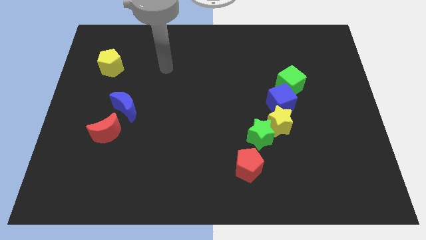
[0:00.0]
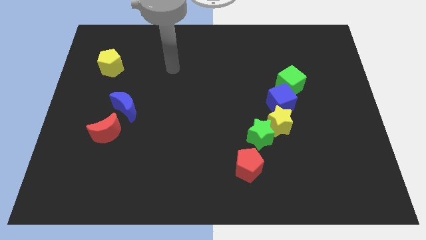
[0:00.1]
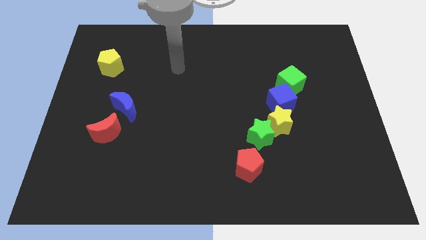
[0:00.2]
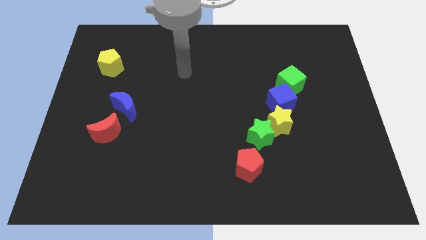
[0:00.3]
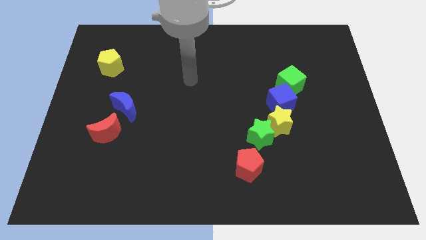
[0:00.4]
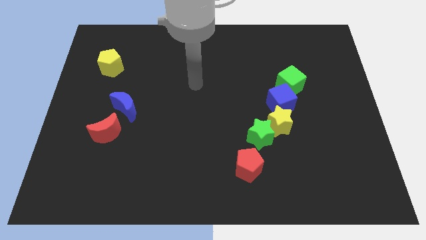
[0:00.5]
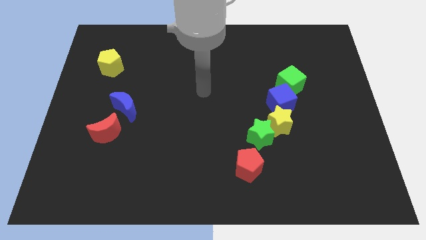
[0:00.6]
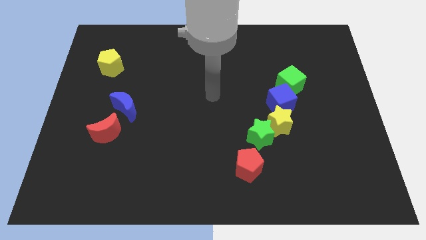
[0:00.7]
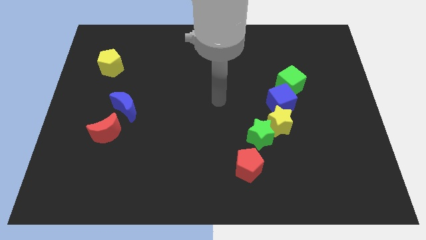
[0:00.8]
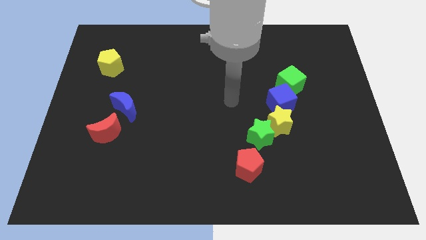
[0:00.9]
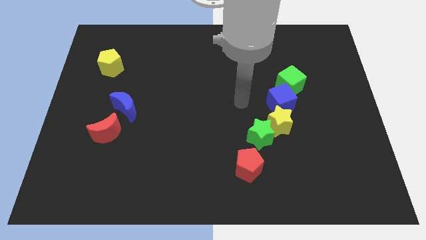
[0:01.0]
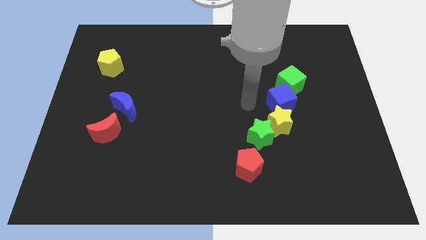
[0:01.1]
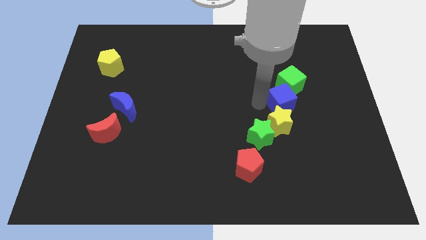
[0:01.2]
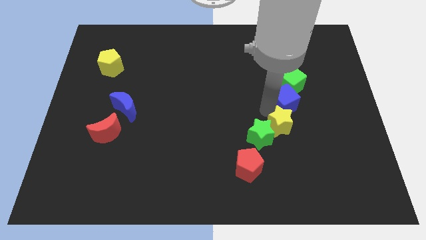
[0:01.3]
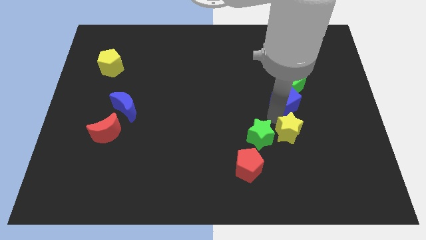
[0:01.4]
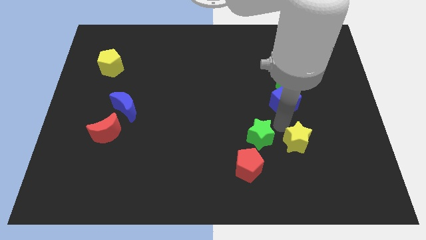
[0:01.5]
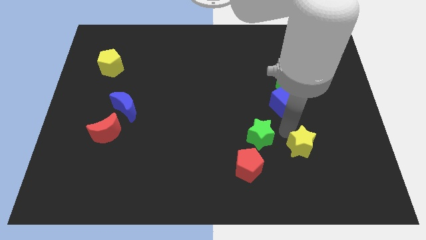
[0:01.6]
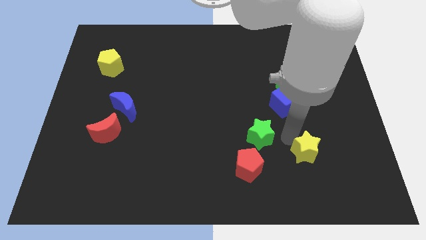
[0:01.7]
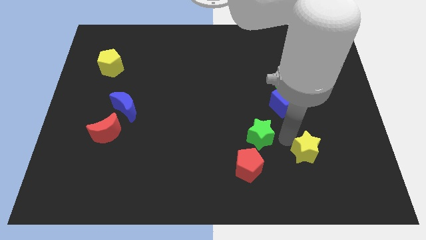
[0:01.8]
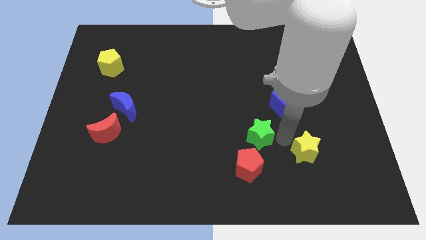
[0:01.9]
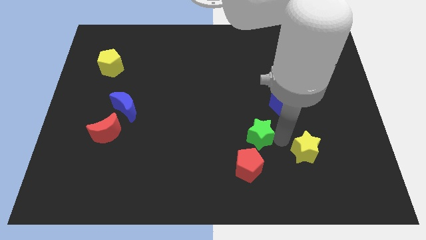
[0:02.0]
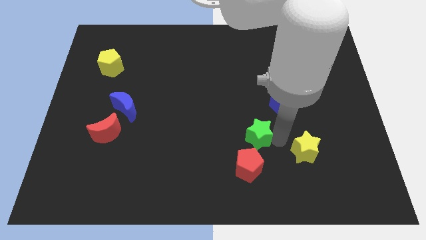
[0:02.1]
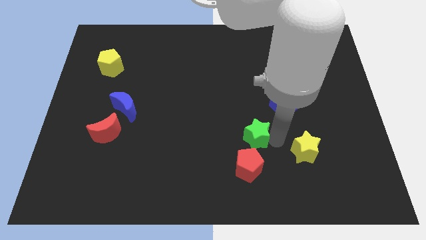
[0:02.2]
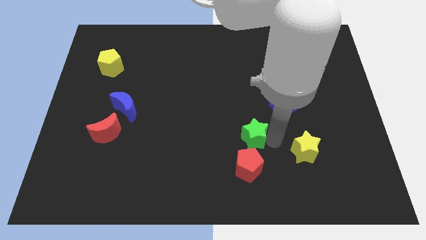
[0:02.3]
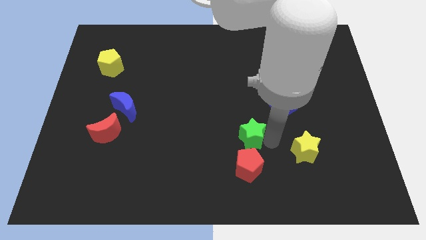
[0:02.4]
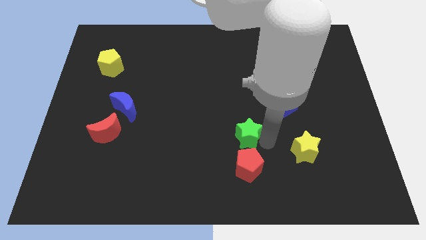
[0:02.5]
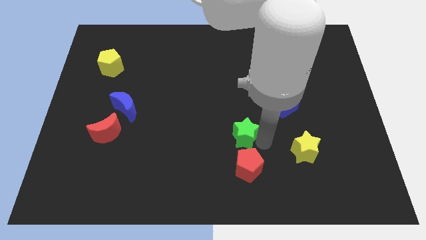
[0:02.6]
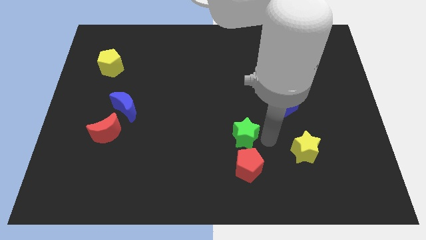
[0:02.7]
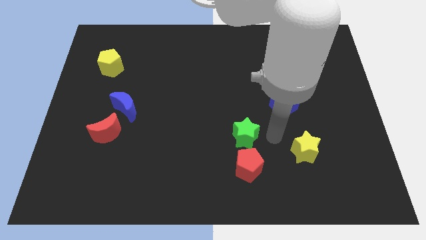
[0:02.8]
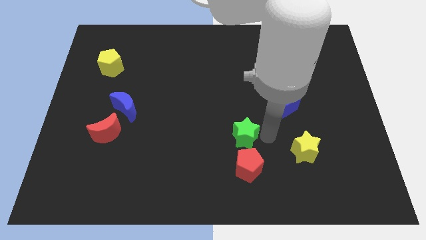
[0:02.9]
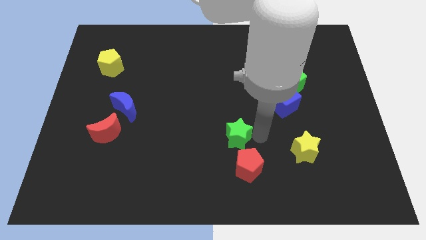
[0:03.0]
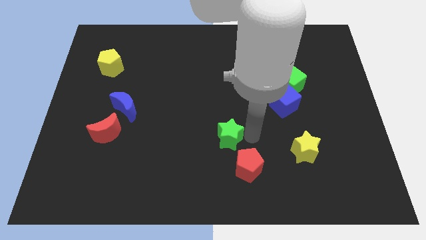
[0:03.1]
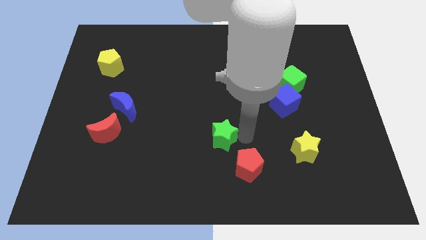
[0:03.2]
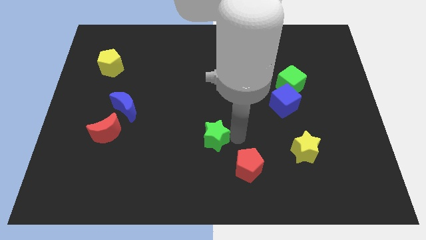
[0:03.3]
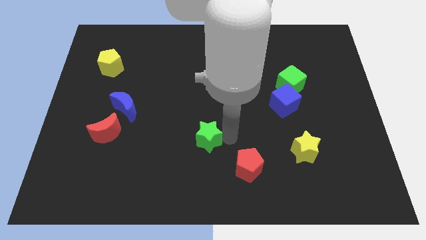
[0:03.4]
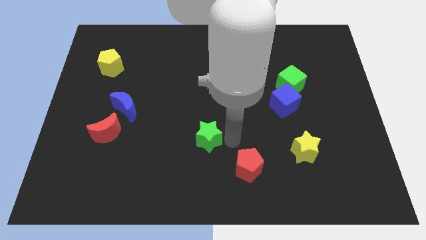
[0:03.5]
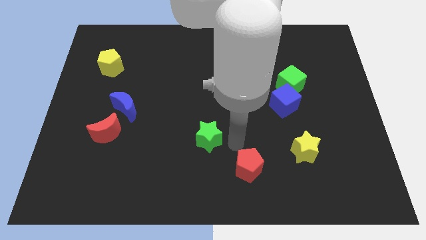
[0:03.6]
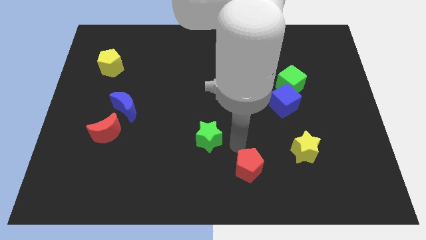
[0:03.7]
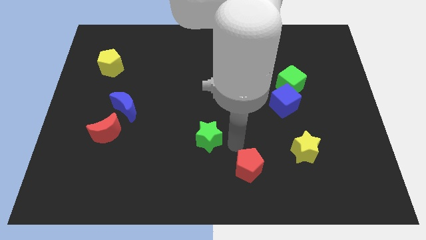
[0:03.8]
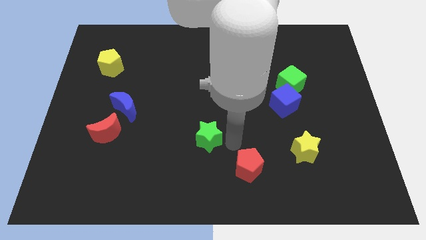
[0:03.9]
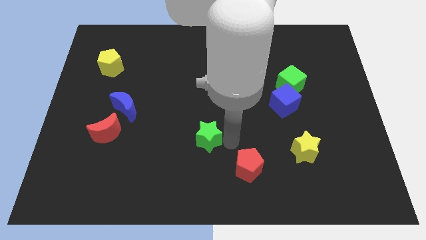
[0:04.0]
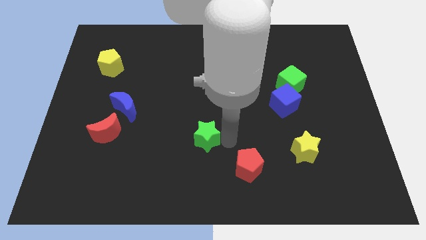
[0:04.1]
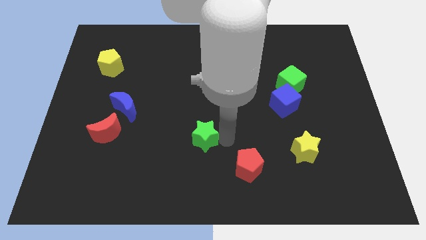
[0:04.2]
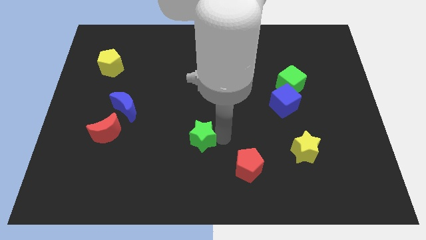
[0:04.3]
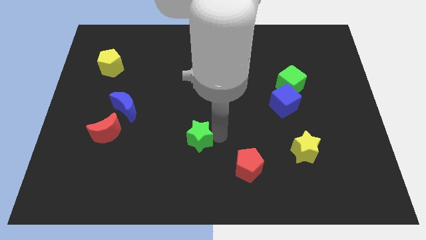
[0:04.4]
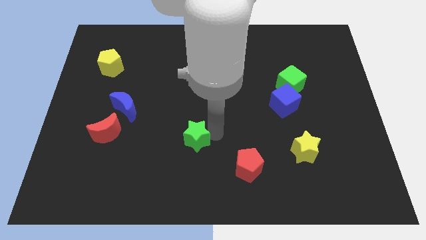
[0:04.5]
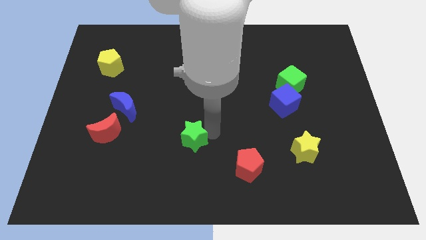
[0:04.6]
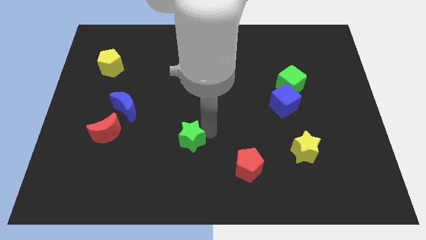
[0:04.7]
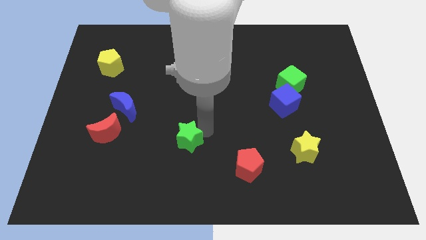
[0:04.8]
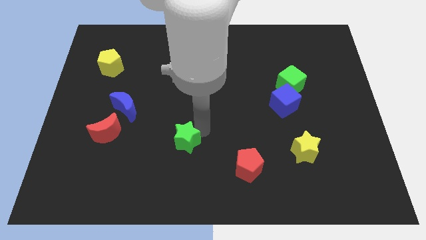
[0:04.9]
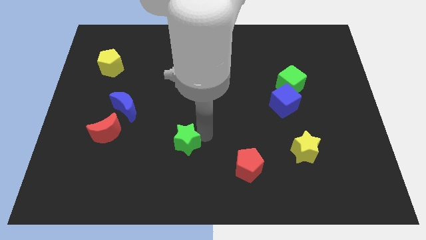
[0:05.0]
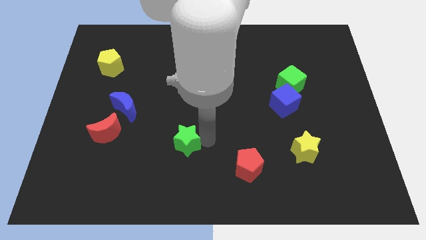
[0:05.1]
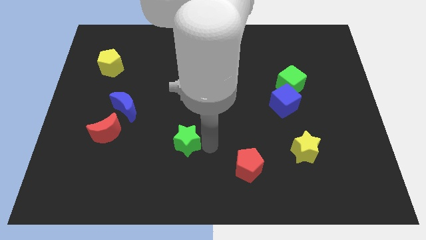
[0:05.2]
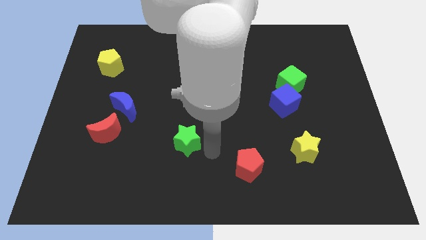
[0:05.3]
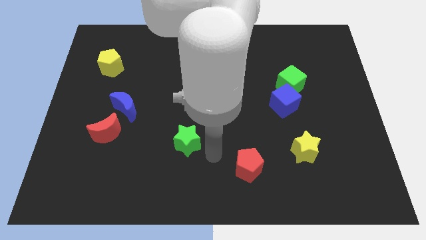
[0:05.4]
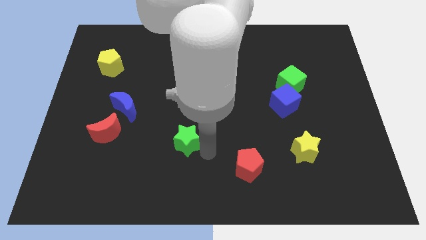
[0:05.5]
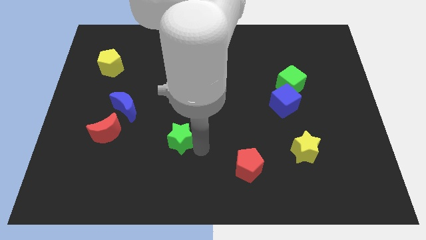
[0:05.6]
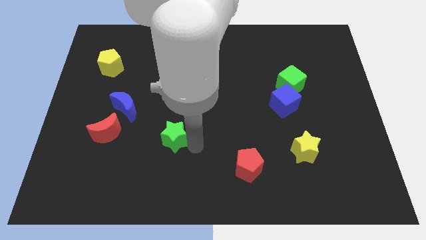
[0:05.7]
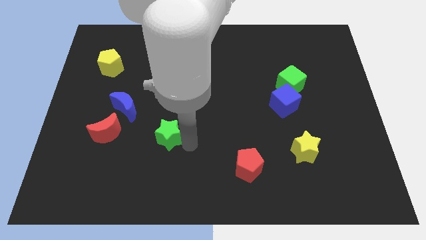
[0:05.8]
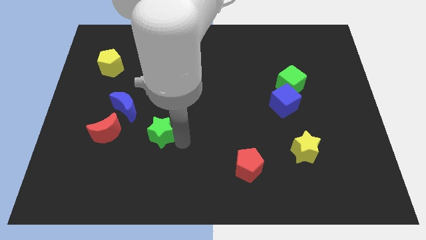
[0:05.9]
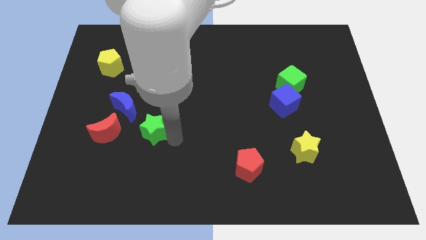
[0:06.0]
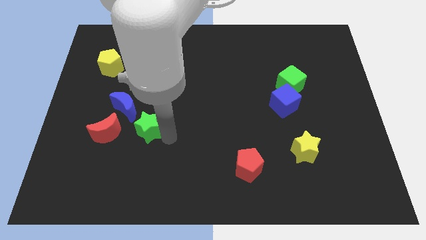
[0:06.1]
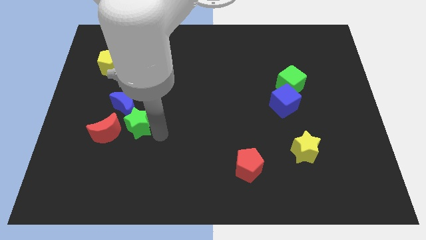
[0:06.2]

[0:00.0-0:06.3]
push the green star towards the blue moon

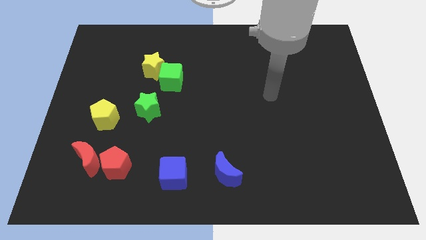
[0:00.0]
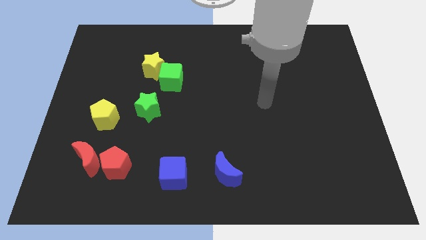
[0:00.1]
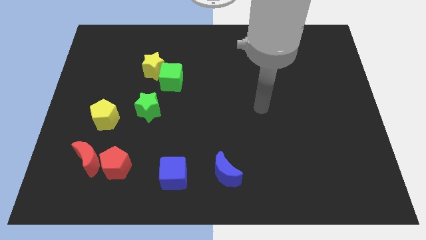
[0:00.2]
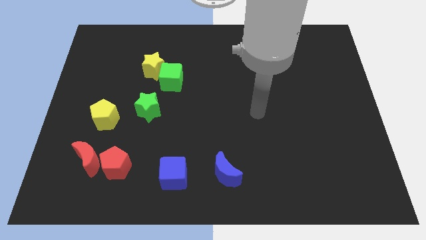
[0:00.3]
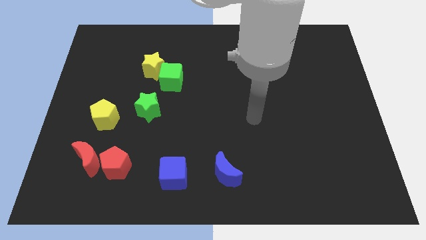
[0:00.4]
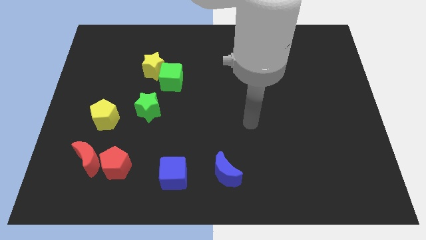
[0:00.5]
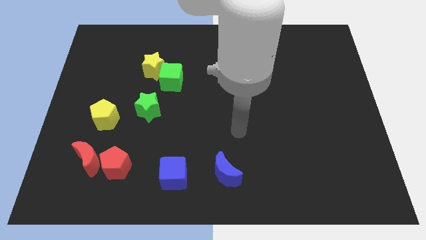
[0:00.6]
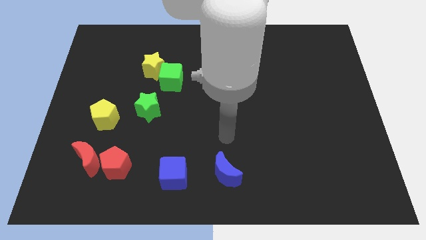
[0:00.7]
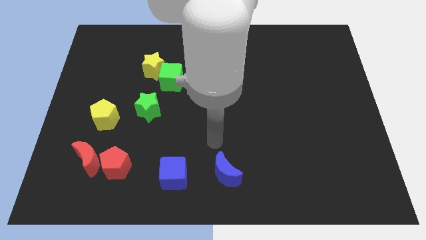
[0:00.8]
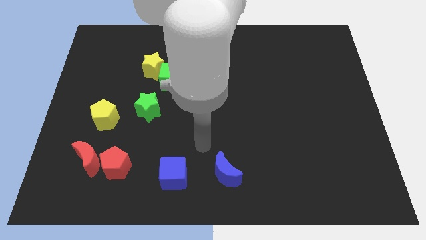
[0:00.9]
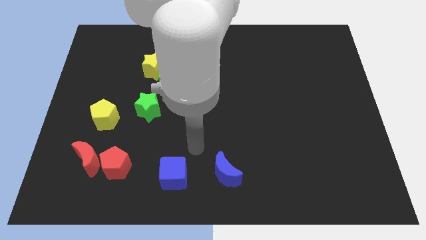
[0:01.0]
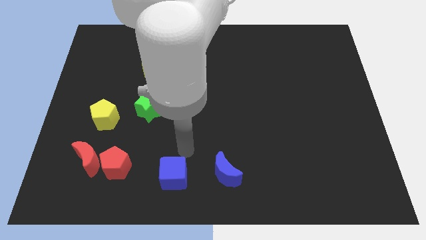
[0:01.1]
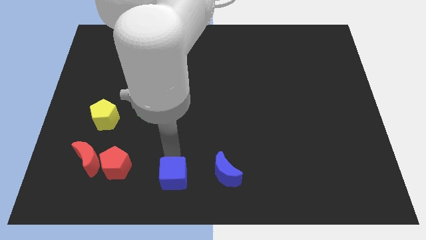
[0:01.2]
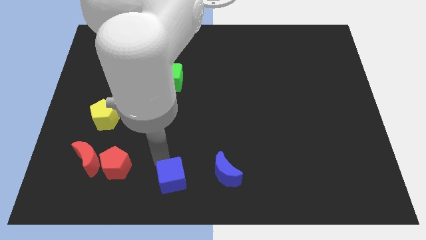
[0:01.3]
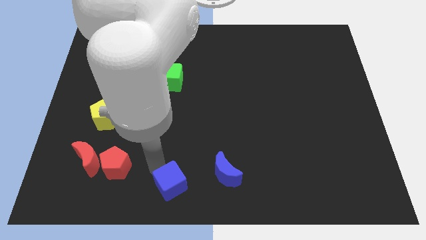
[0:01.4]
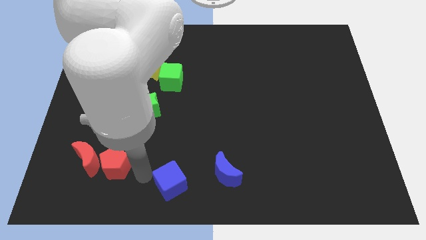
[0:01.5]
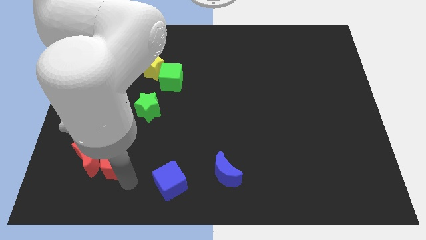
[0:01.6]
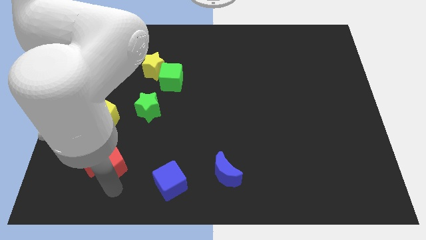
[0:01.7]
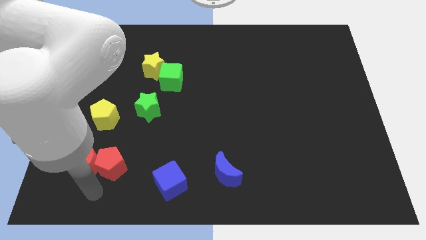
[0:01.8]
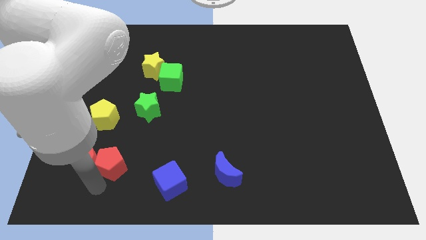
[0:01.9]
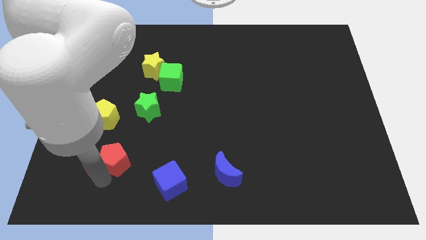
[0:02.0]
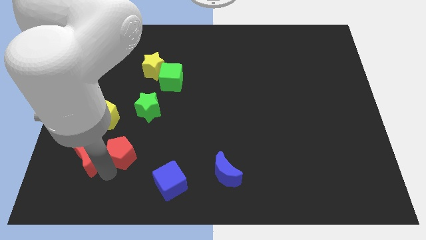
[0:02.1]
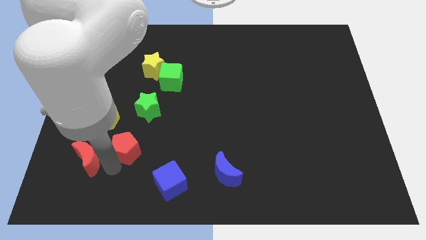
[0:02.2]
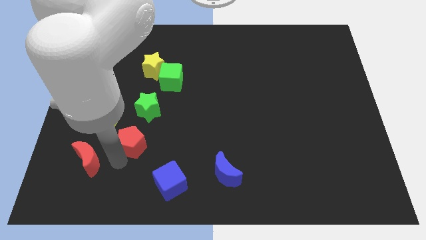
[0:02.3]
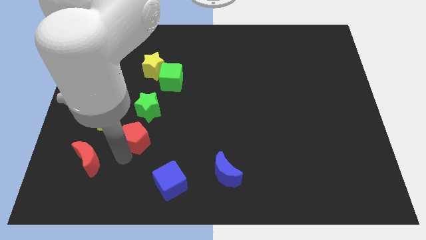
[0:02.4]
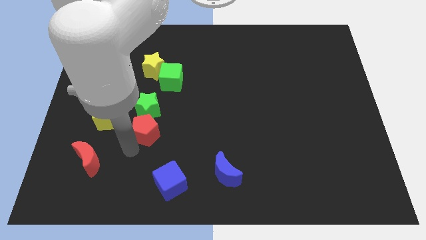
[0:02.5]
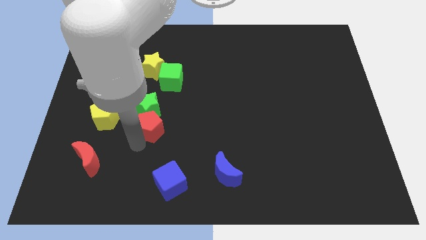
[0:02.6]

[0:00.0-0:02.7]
slide the red pentagon next to the green star
